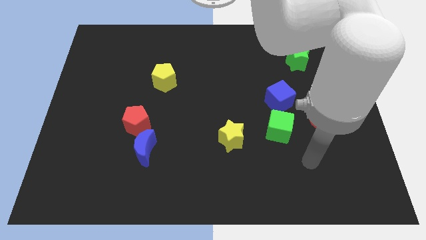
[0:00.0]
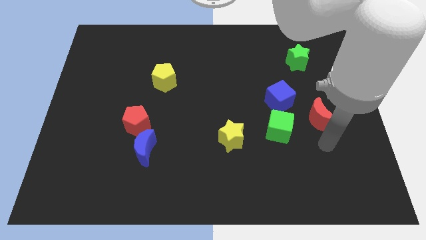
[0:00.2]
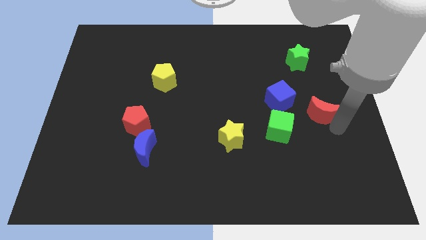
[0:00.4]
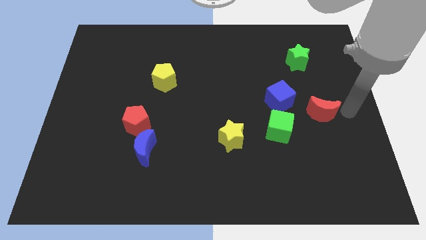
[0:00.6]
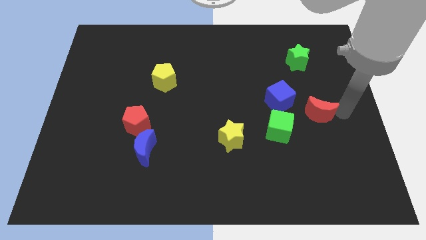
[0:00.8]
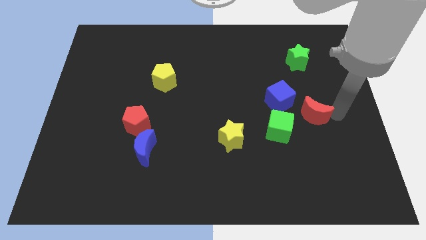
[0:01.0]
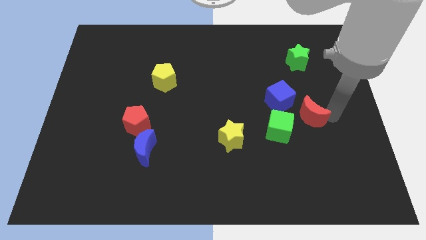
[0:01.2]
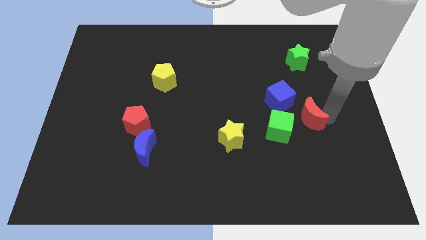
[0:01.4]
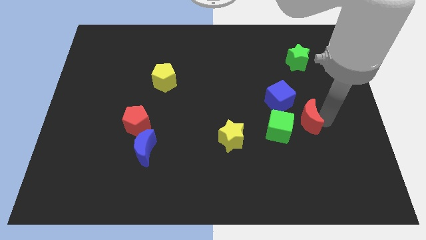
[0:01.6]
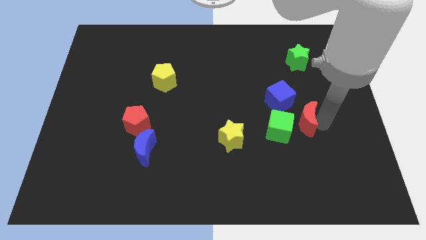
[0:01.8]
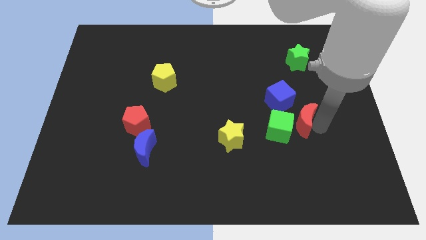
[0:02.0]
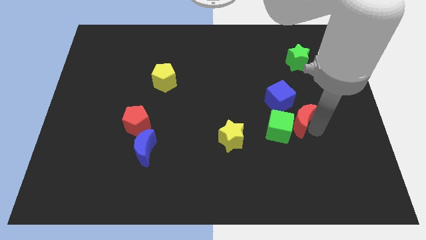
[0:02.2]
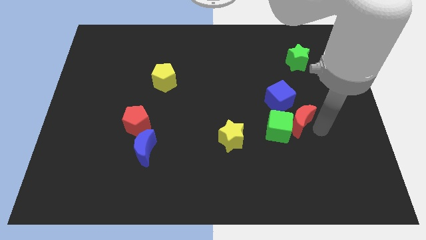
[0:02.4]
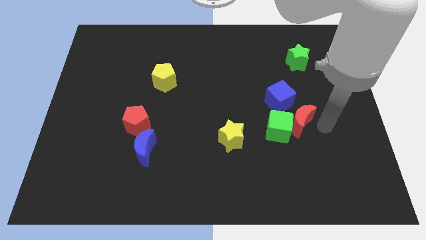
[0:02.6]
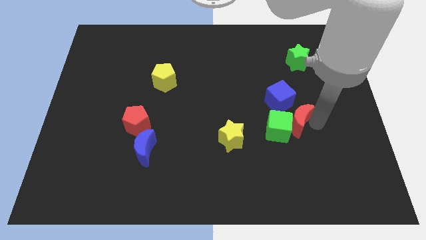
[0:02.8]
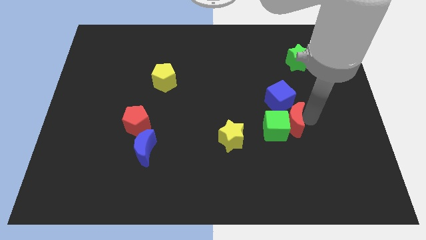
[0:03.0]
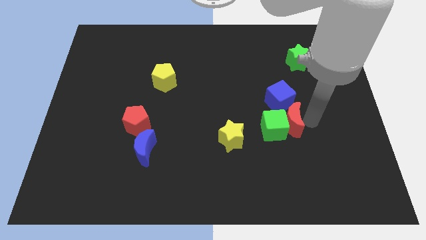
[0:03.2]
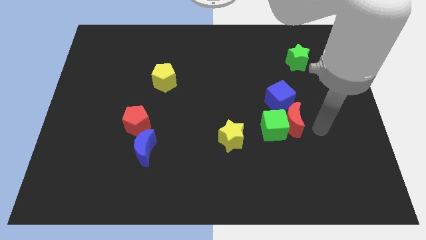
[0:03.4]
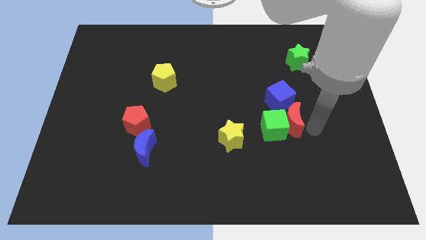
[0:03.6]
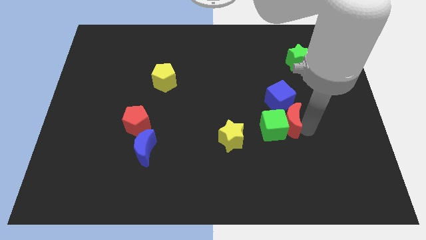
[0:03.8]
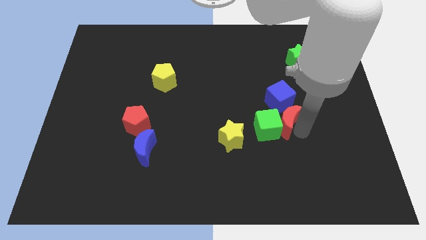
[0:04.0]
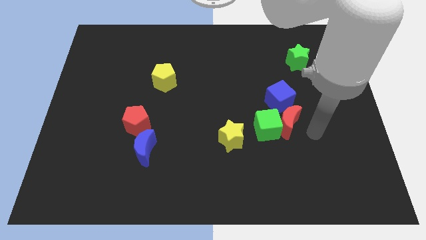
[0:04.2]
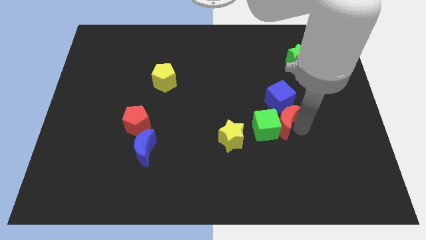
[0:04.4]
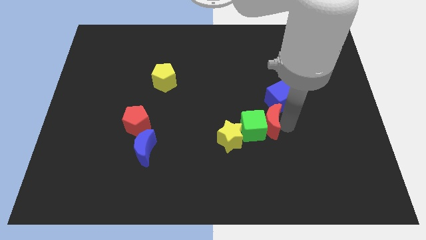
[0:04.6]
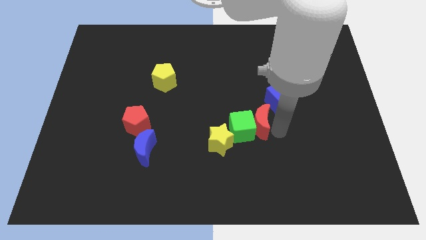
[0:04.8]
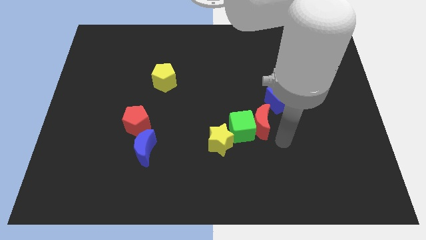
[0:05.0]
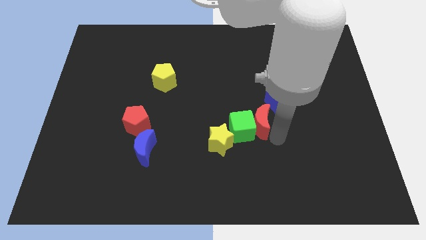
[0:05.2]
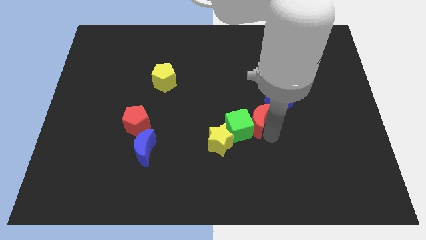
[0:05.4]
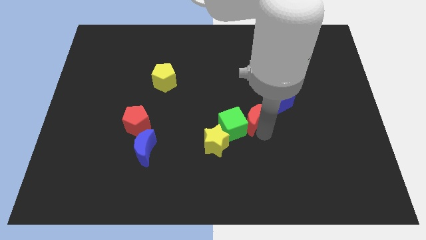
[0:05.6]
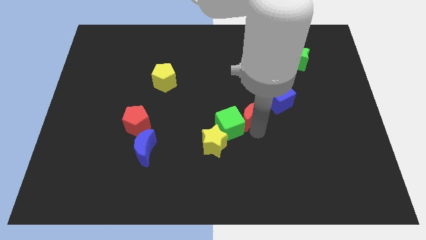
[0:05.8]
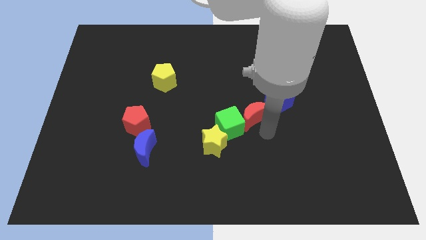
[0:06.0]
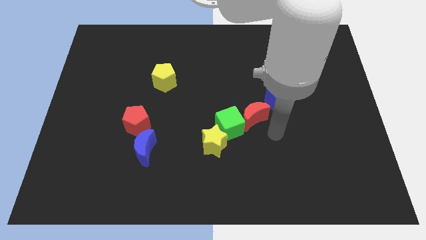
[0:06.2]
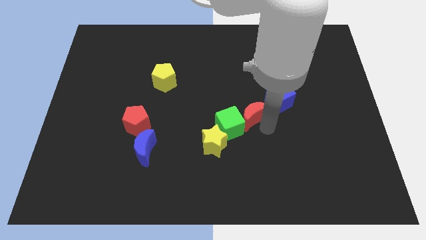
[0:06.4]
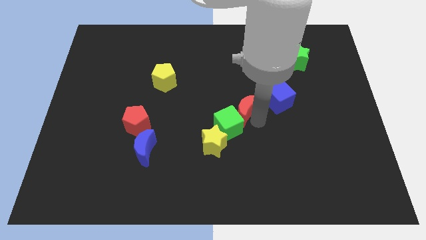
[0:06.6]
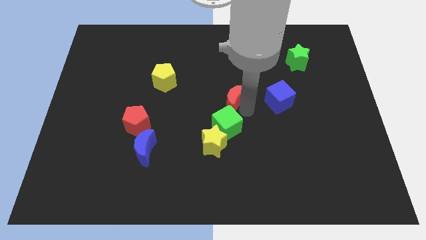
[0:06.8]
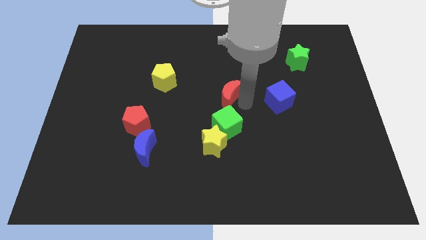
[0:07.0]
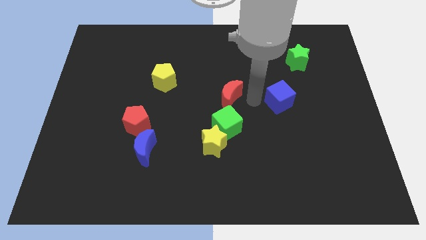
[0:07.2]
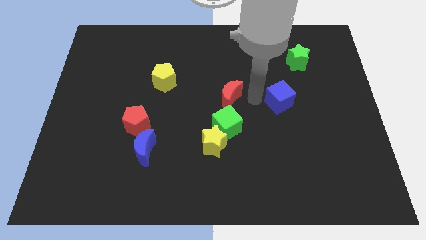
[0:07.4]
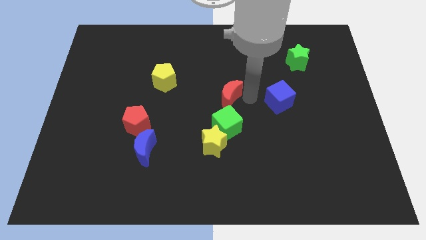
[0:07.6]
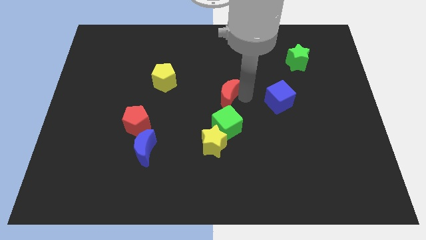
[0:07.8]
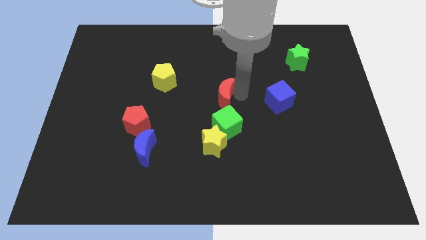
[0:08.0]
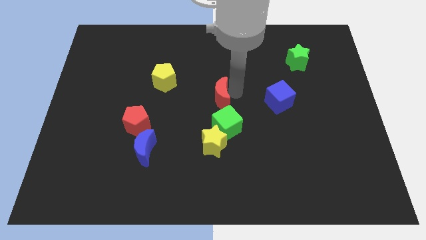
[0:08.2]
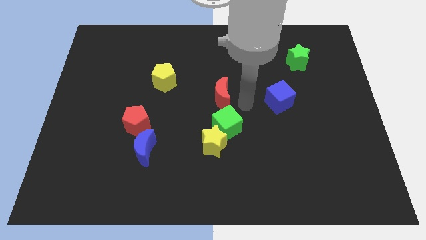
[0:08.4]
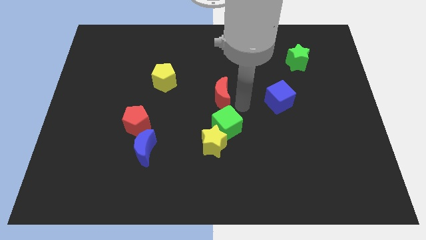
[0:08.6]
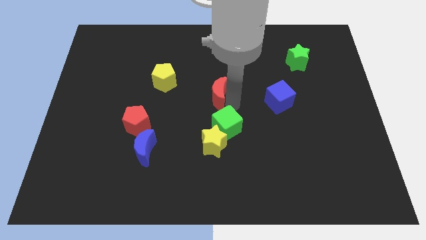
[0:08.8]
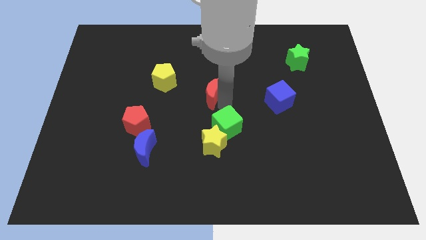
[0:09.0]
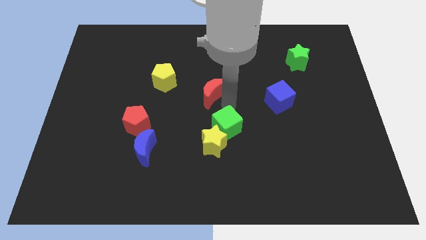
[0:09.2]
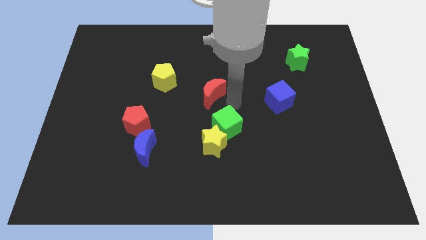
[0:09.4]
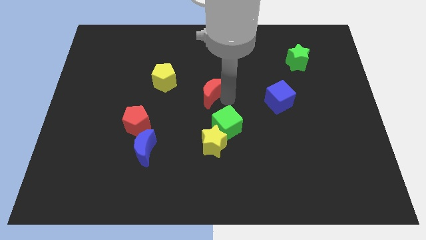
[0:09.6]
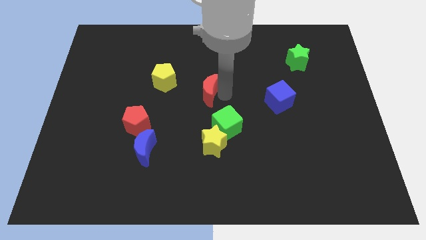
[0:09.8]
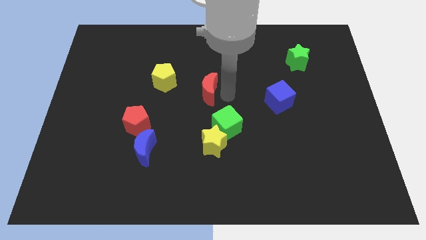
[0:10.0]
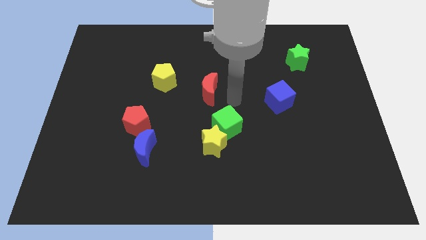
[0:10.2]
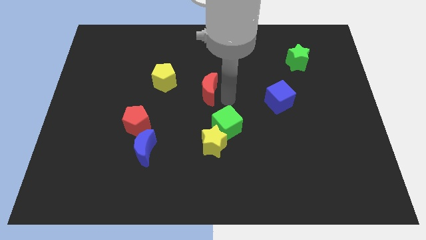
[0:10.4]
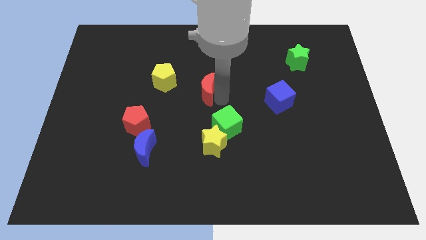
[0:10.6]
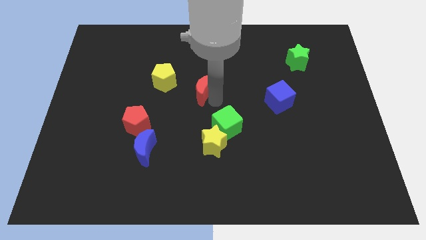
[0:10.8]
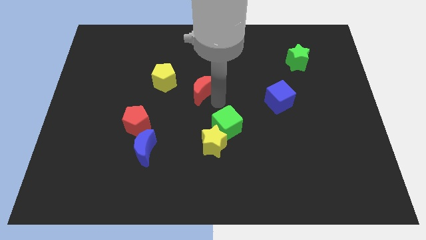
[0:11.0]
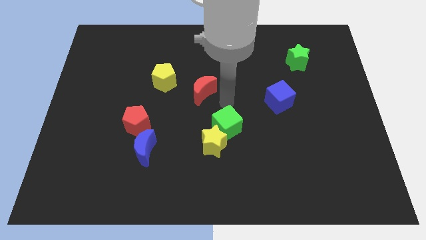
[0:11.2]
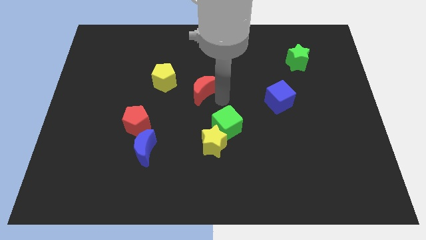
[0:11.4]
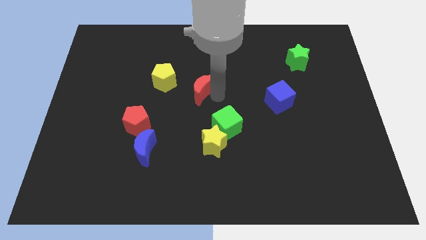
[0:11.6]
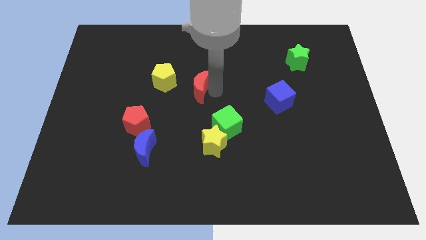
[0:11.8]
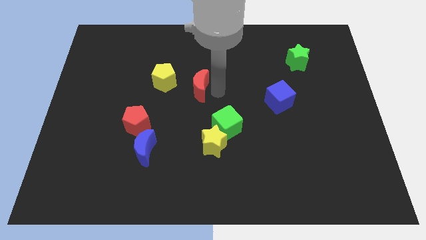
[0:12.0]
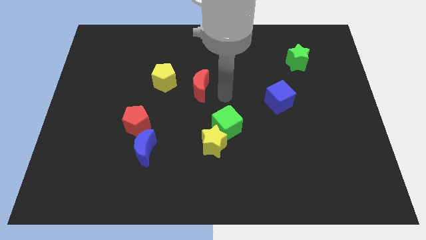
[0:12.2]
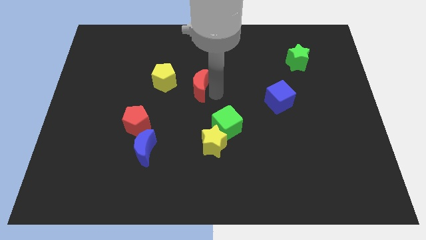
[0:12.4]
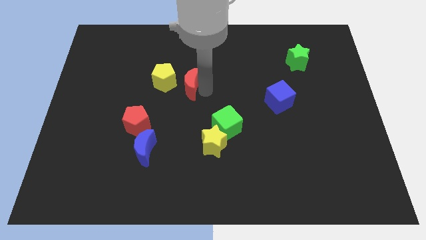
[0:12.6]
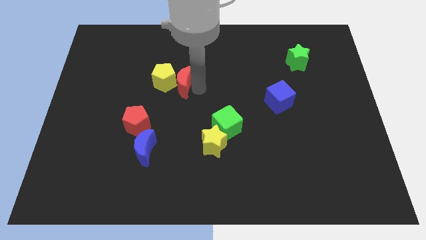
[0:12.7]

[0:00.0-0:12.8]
move the red moon to the yellow pentagon

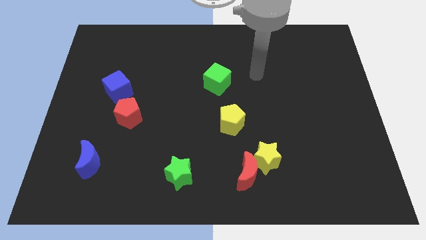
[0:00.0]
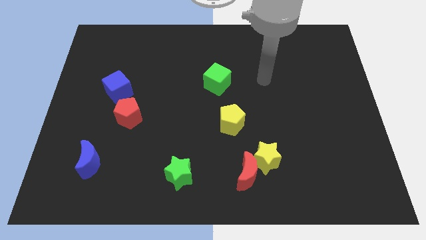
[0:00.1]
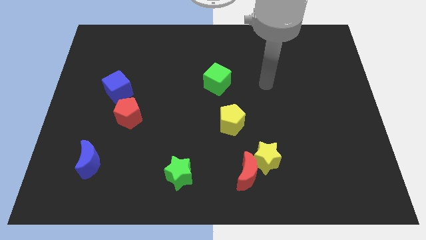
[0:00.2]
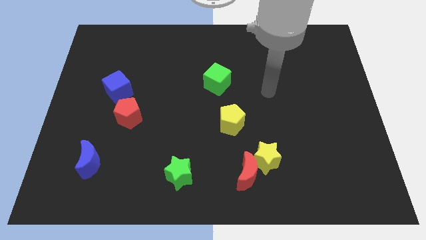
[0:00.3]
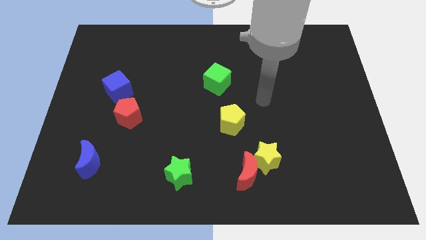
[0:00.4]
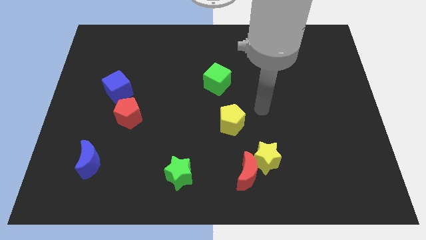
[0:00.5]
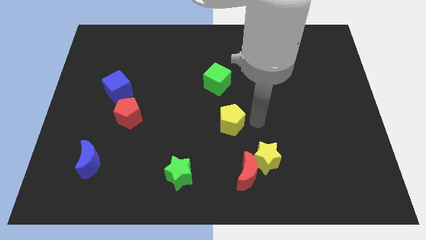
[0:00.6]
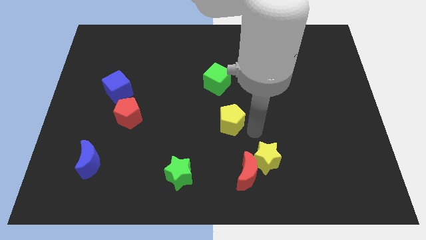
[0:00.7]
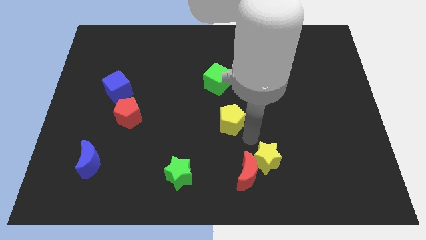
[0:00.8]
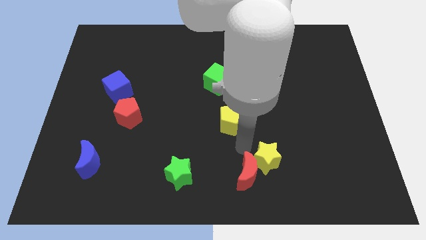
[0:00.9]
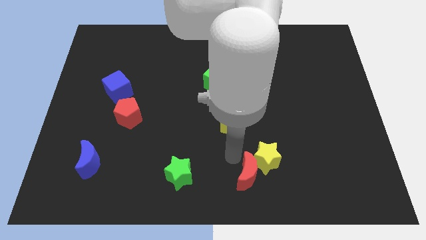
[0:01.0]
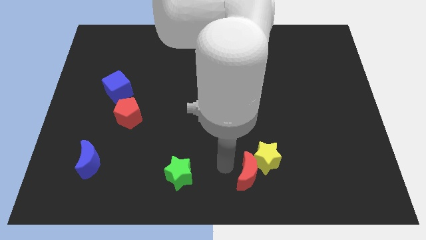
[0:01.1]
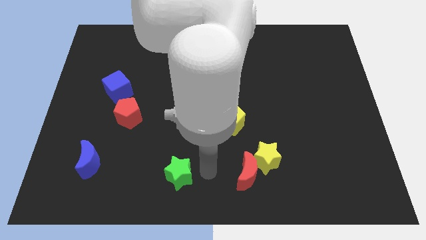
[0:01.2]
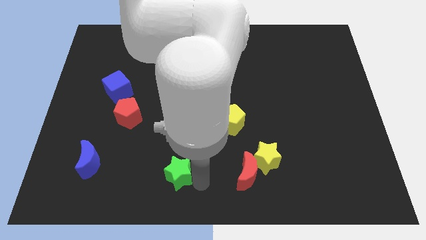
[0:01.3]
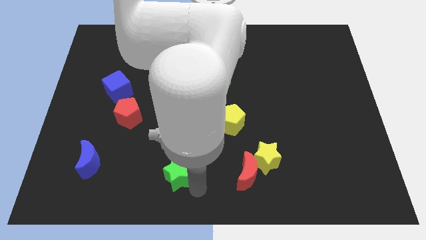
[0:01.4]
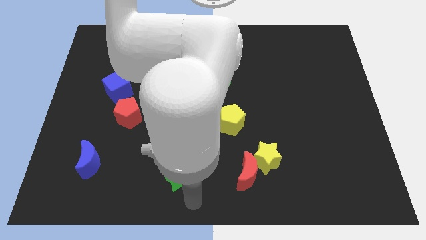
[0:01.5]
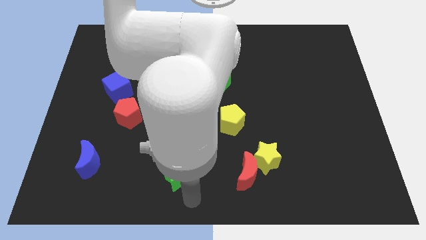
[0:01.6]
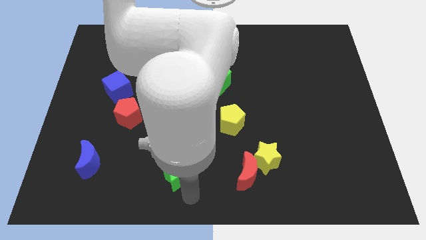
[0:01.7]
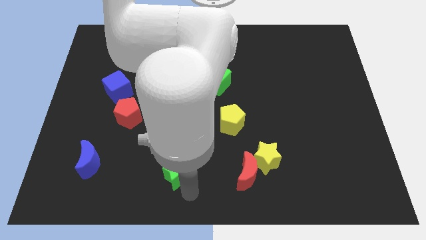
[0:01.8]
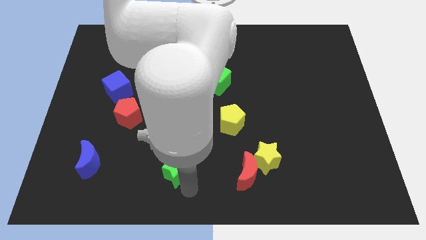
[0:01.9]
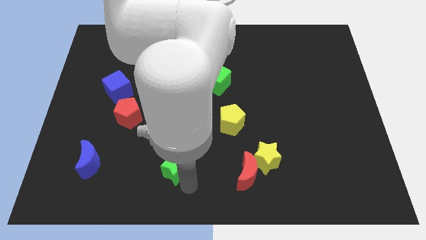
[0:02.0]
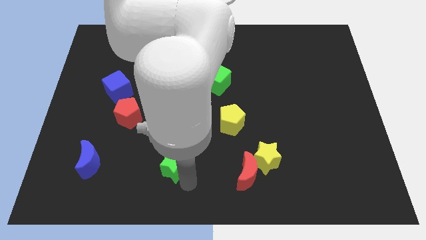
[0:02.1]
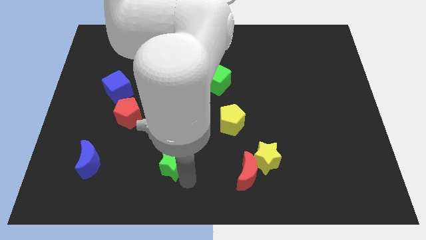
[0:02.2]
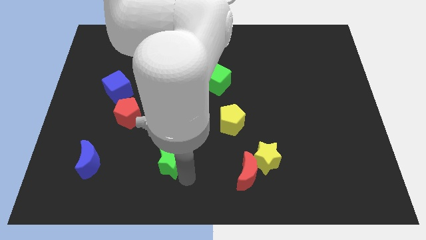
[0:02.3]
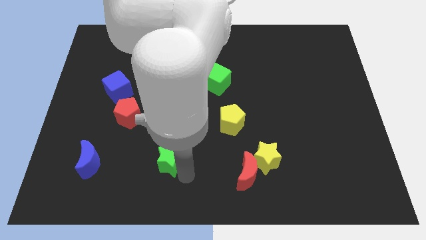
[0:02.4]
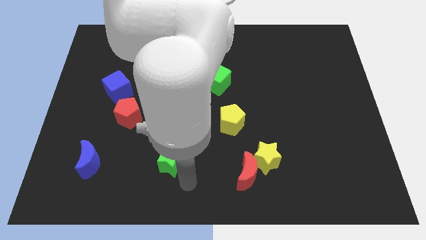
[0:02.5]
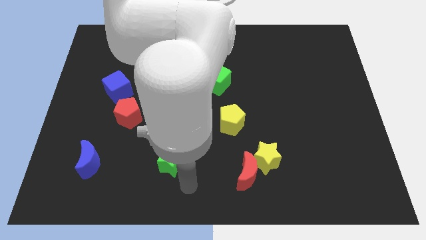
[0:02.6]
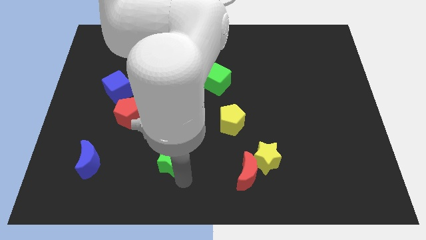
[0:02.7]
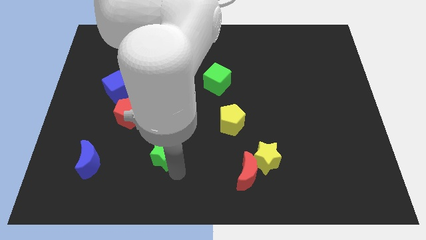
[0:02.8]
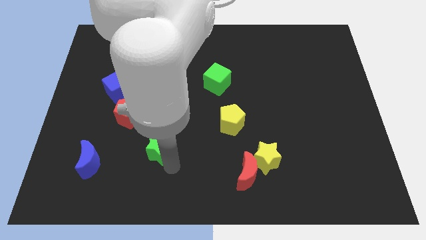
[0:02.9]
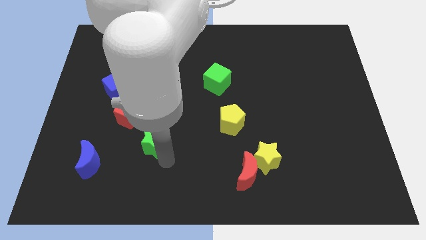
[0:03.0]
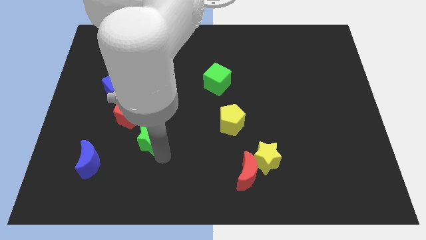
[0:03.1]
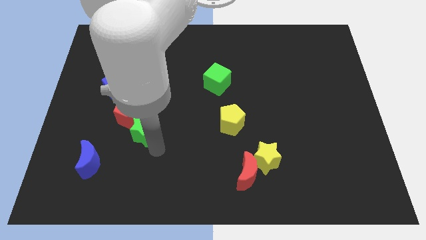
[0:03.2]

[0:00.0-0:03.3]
move the green star next to the red pentagon
